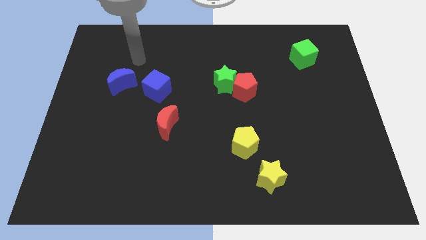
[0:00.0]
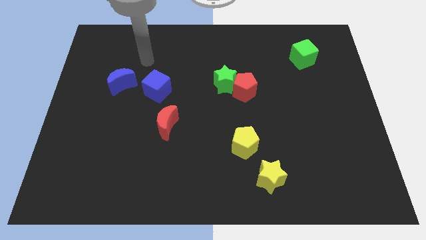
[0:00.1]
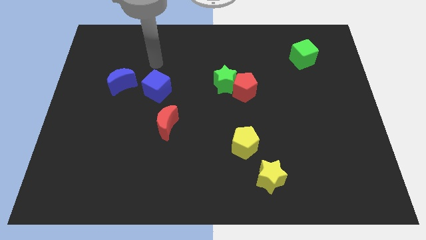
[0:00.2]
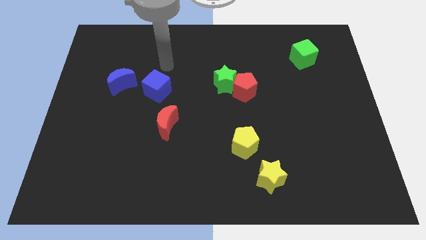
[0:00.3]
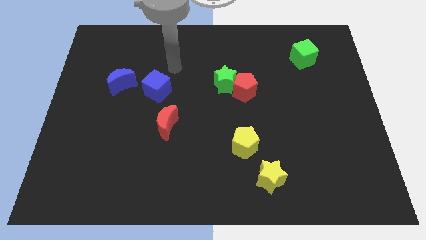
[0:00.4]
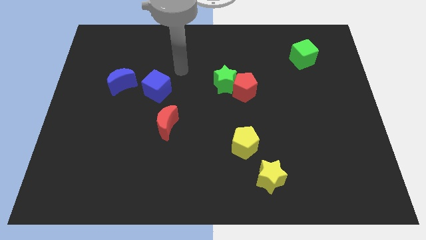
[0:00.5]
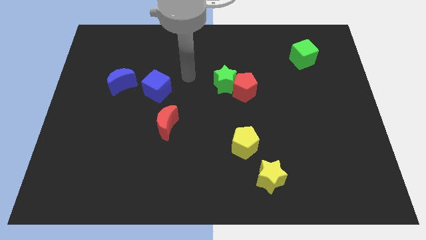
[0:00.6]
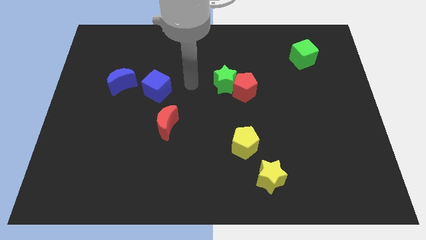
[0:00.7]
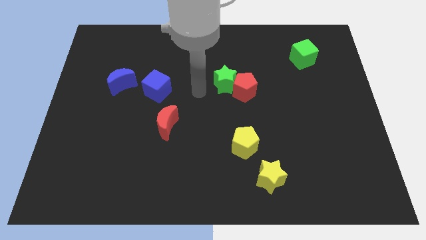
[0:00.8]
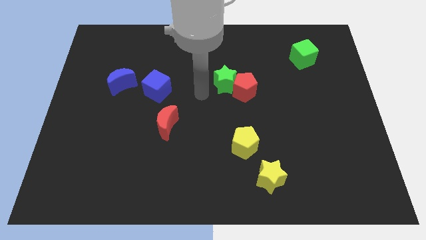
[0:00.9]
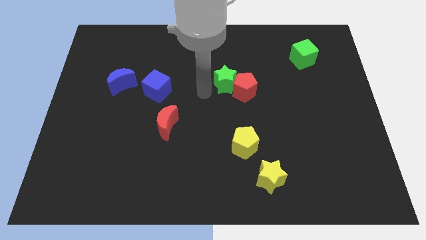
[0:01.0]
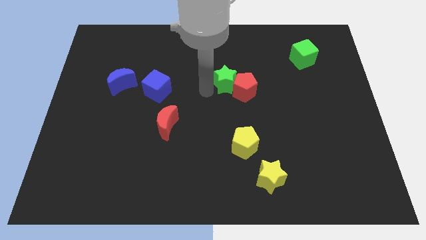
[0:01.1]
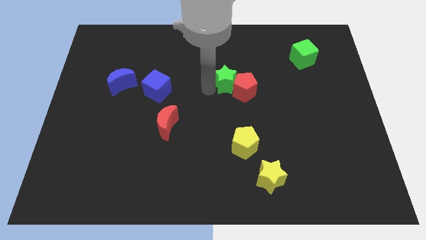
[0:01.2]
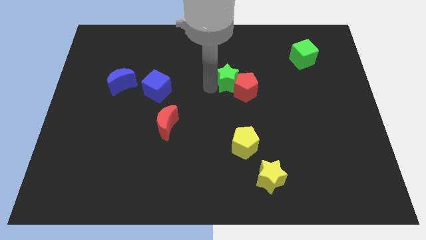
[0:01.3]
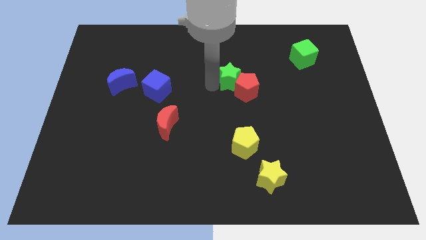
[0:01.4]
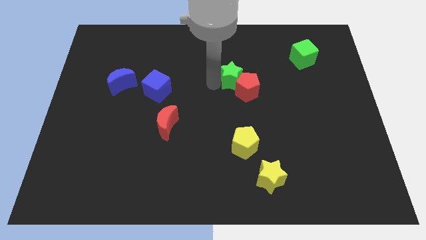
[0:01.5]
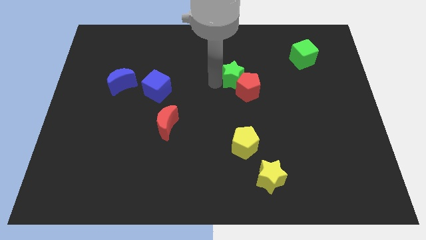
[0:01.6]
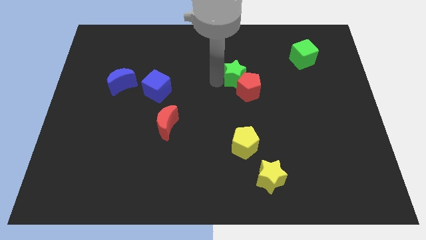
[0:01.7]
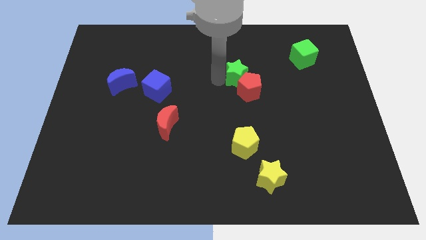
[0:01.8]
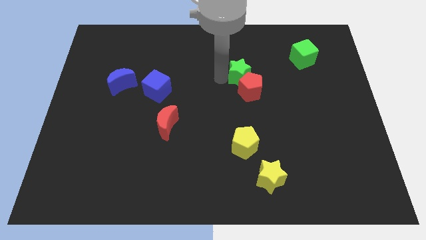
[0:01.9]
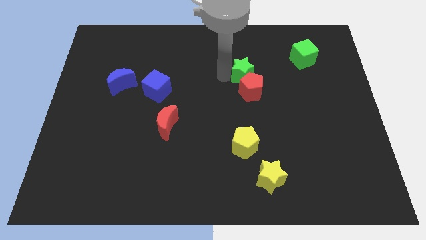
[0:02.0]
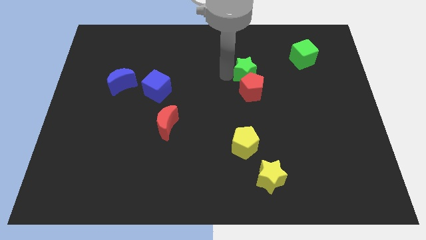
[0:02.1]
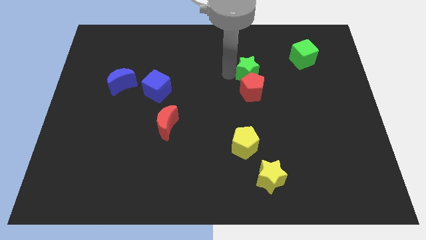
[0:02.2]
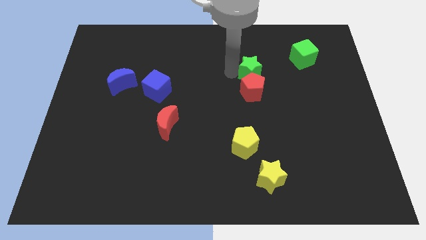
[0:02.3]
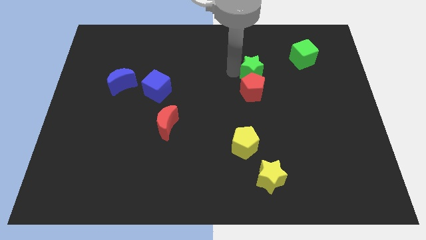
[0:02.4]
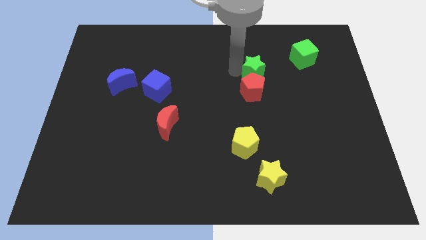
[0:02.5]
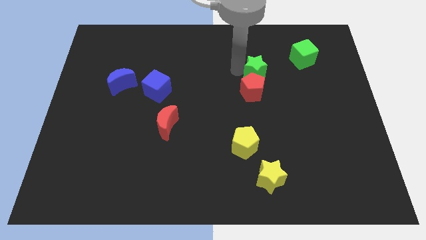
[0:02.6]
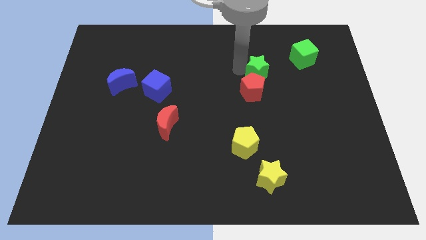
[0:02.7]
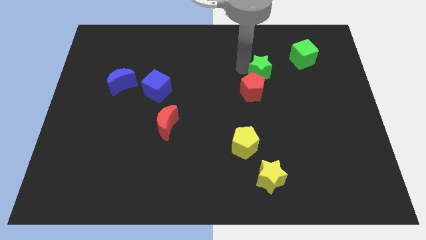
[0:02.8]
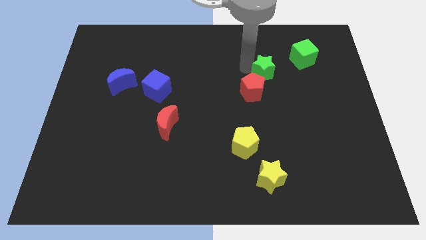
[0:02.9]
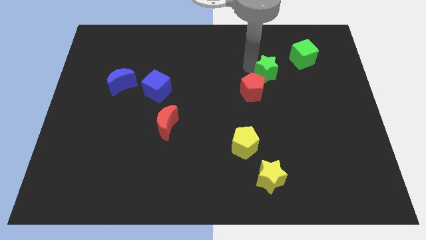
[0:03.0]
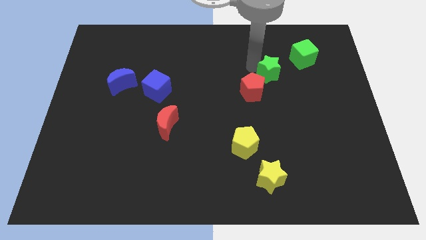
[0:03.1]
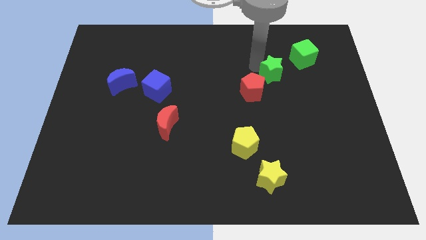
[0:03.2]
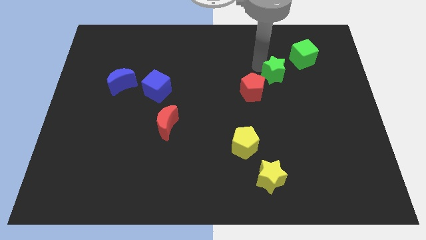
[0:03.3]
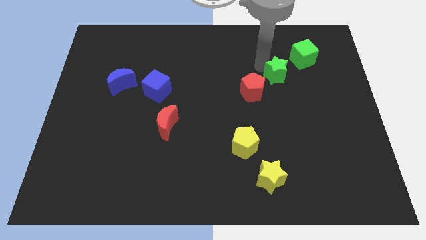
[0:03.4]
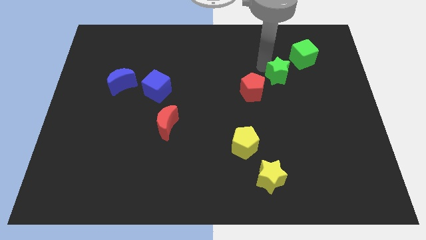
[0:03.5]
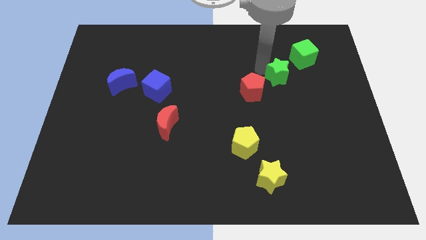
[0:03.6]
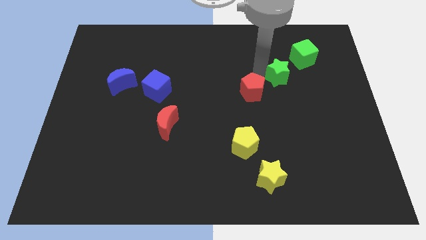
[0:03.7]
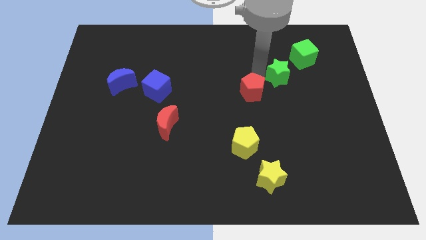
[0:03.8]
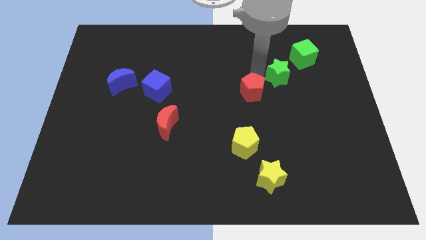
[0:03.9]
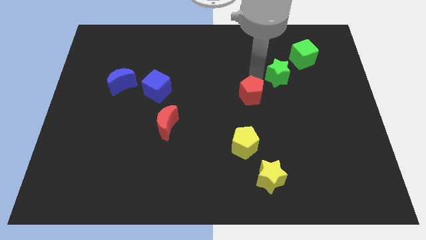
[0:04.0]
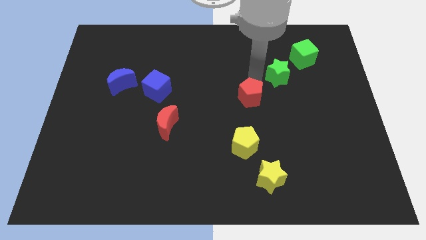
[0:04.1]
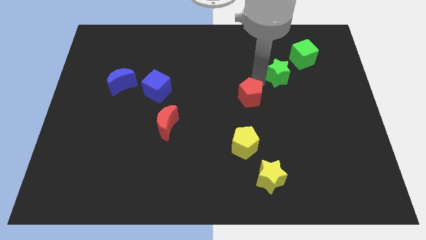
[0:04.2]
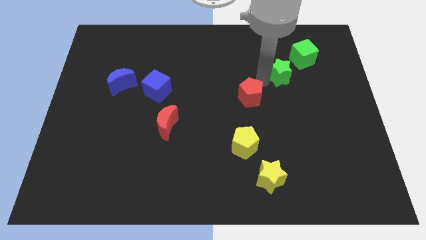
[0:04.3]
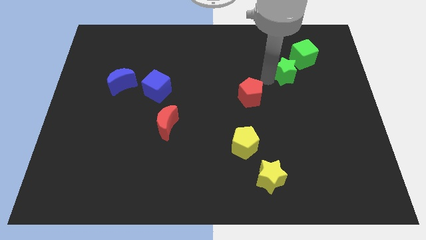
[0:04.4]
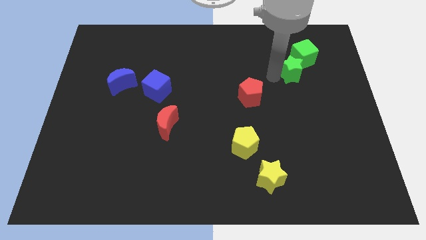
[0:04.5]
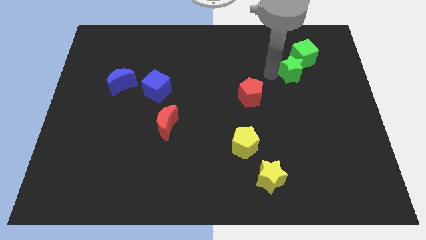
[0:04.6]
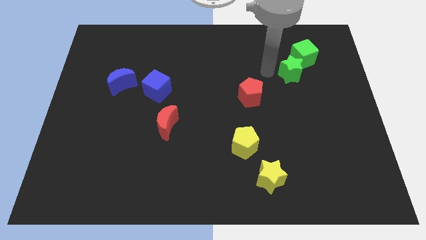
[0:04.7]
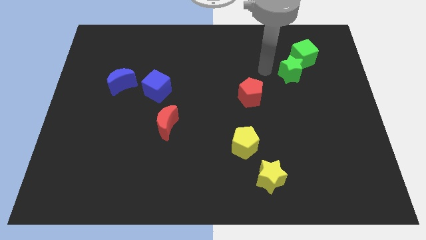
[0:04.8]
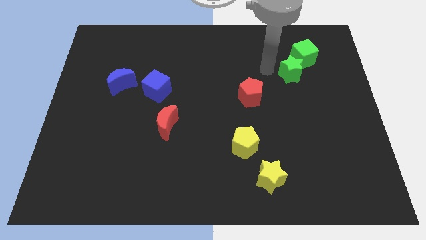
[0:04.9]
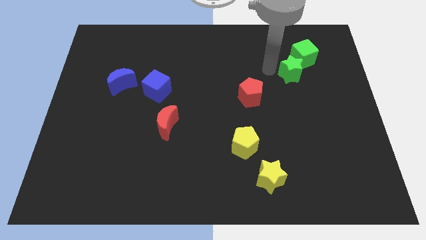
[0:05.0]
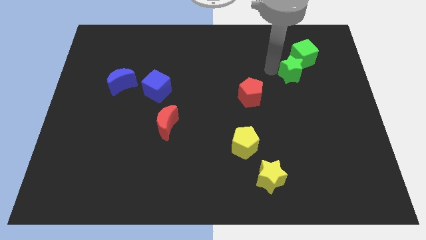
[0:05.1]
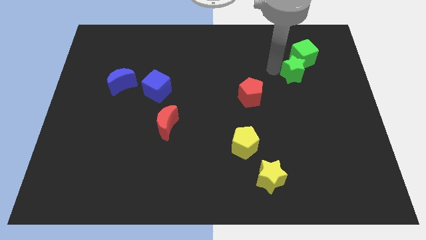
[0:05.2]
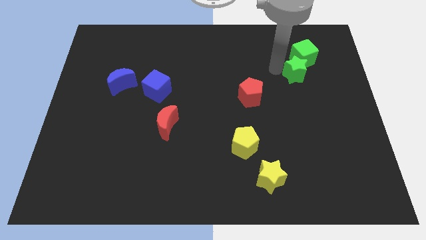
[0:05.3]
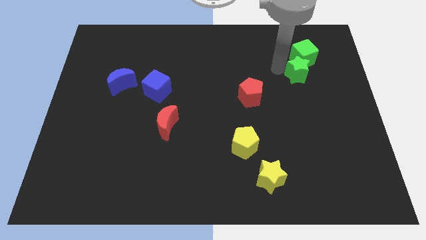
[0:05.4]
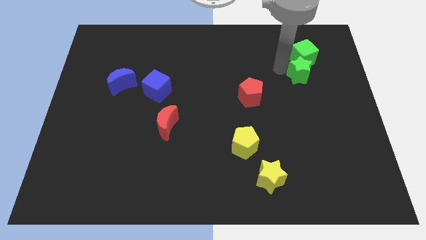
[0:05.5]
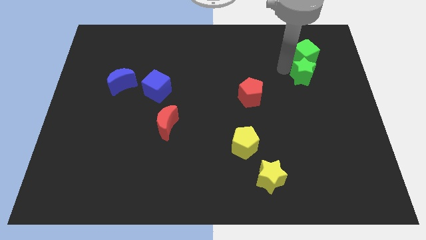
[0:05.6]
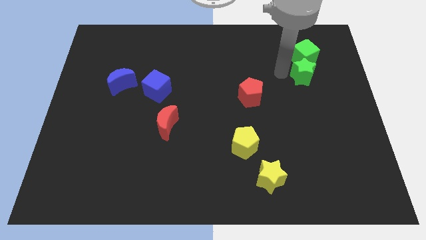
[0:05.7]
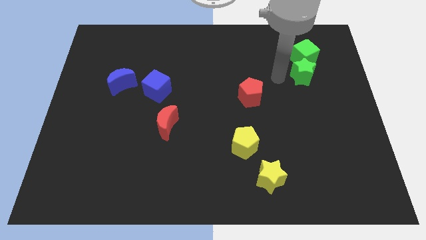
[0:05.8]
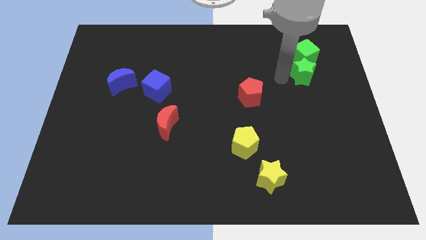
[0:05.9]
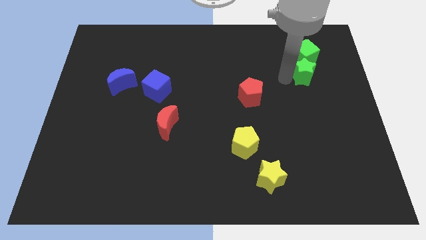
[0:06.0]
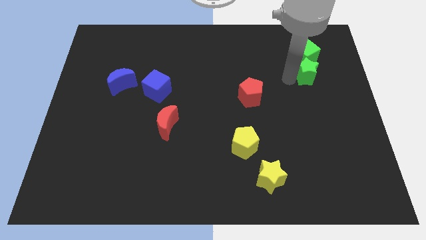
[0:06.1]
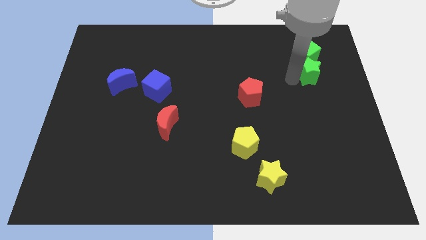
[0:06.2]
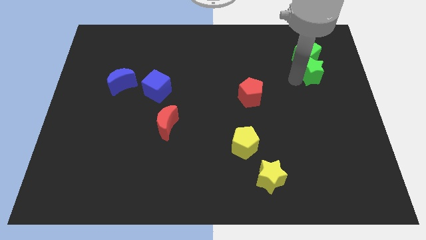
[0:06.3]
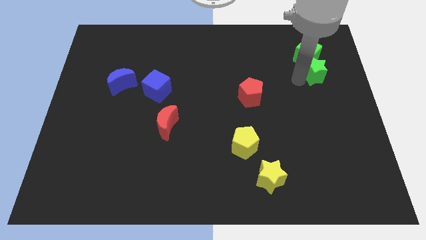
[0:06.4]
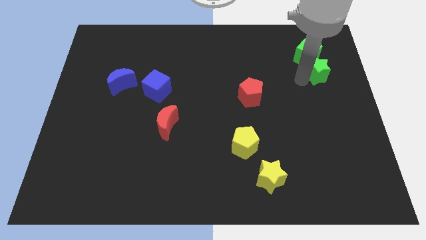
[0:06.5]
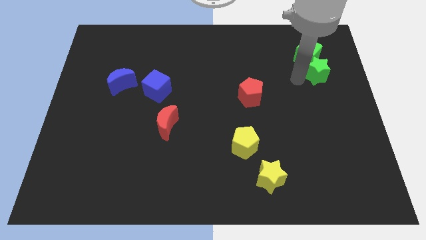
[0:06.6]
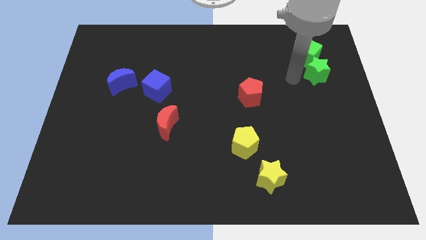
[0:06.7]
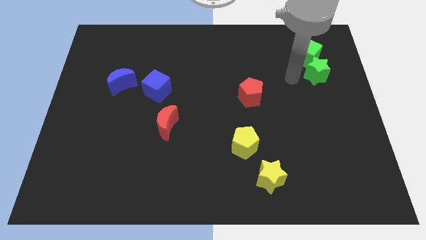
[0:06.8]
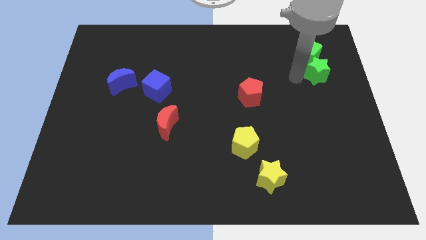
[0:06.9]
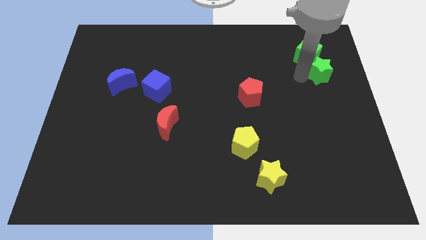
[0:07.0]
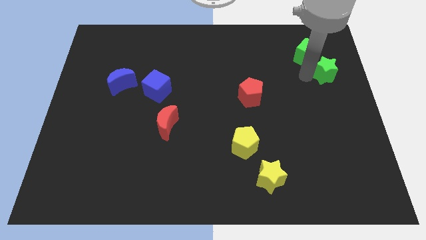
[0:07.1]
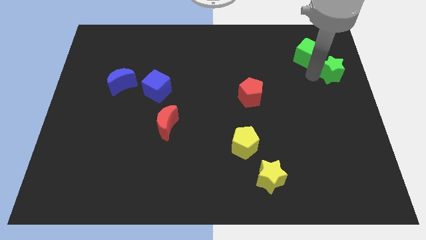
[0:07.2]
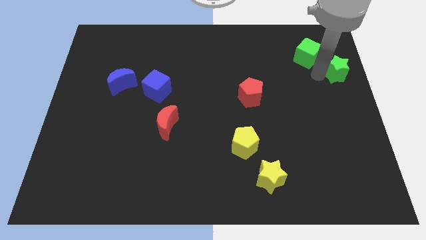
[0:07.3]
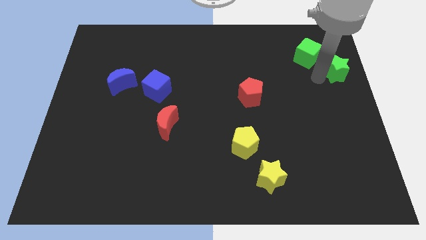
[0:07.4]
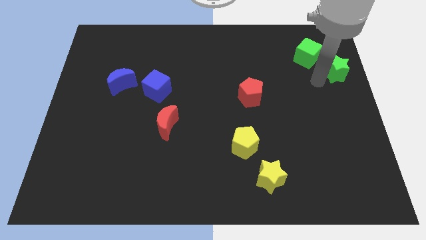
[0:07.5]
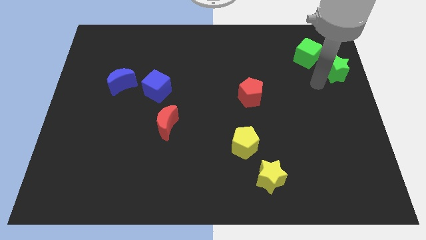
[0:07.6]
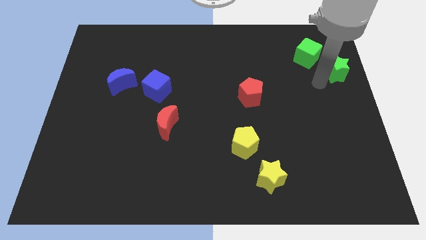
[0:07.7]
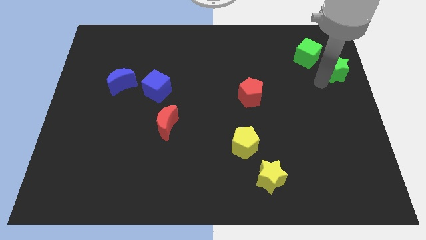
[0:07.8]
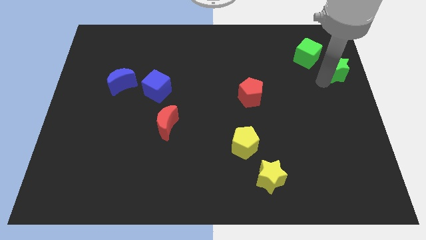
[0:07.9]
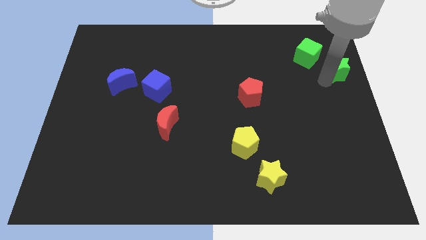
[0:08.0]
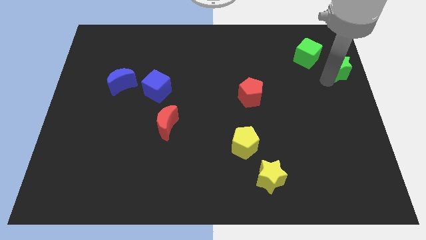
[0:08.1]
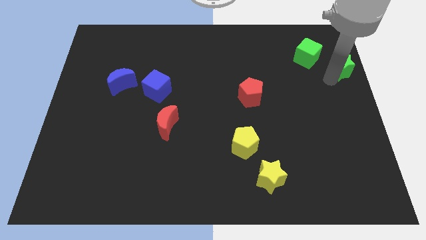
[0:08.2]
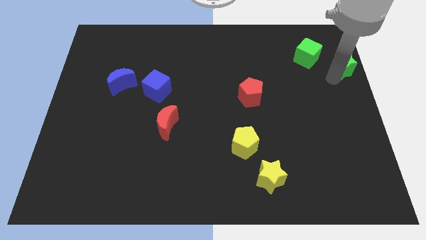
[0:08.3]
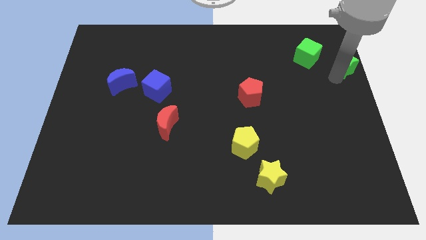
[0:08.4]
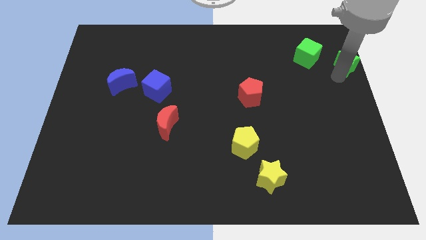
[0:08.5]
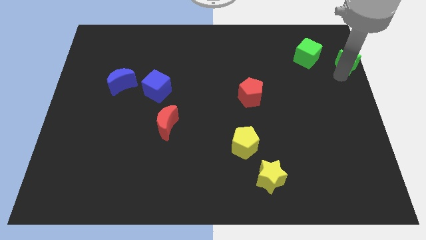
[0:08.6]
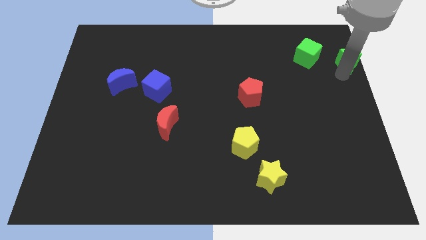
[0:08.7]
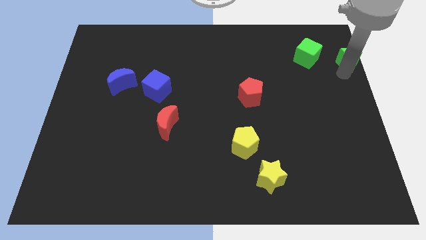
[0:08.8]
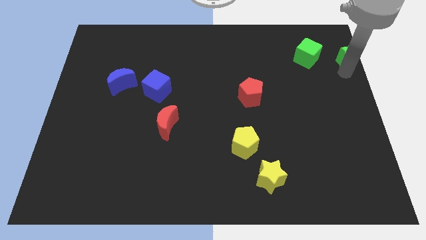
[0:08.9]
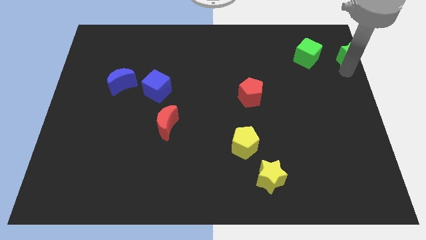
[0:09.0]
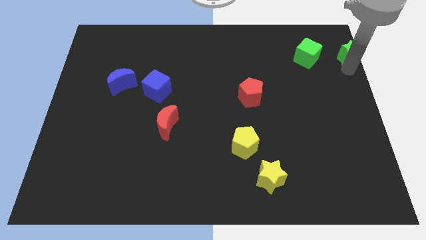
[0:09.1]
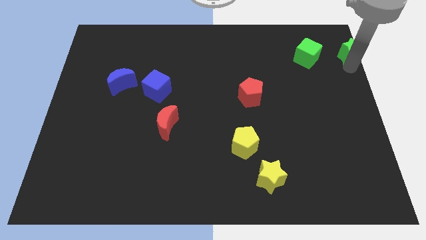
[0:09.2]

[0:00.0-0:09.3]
push the green star to the upper right corner
